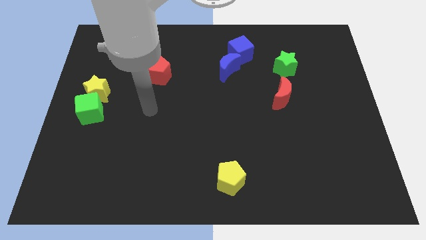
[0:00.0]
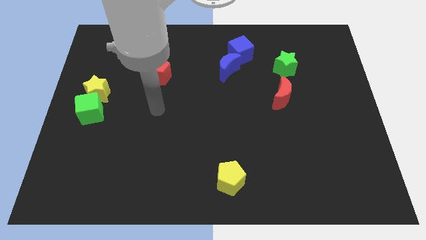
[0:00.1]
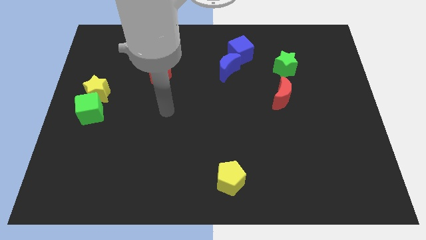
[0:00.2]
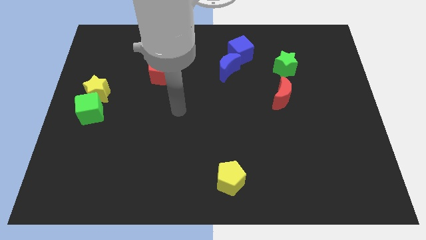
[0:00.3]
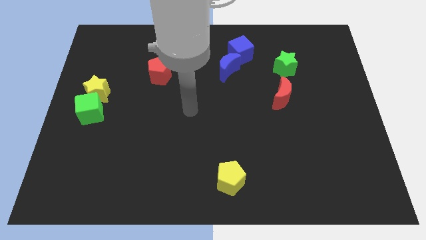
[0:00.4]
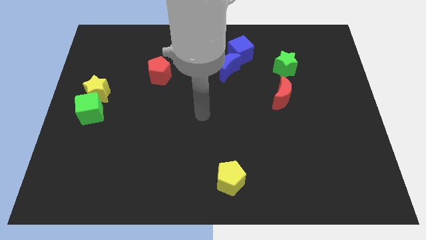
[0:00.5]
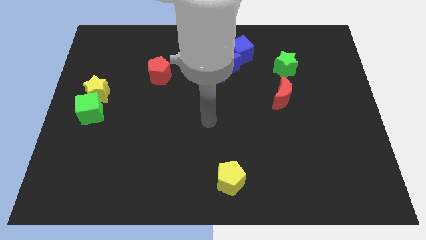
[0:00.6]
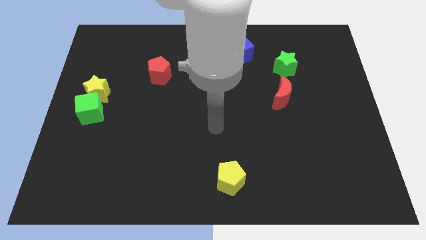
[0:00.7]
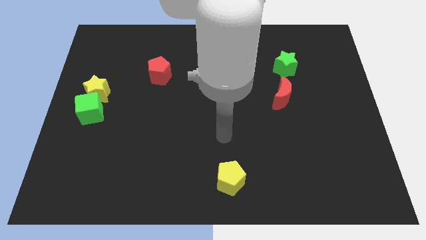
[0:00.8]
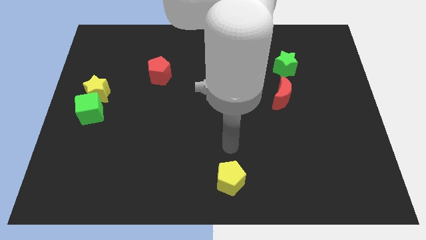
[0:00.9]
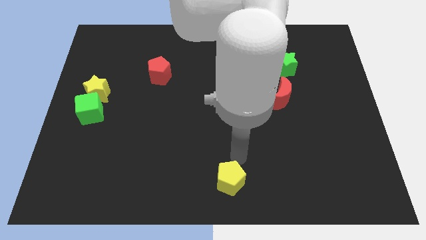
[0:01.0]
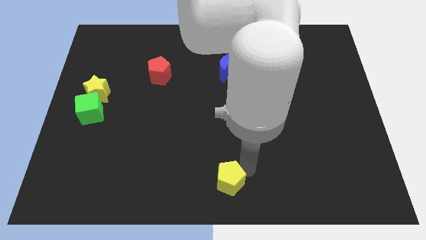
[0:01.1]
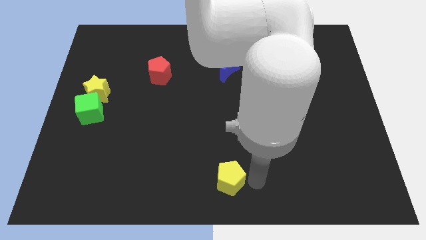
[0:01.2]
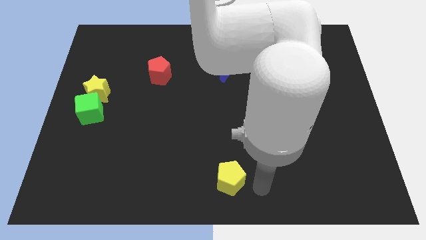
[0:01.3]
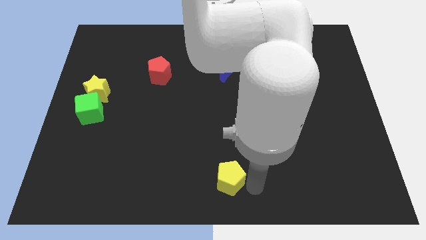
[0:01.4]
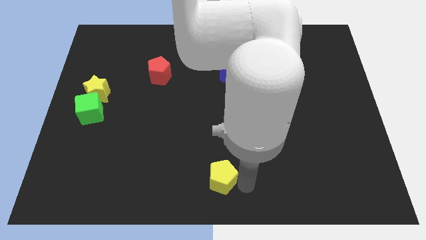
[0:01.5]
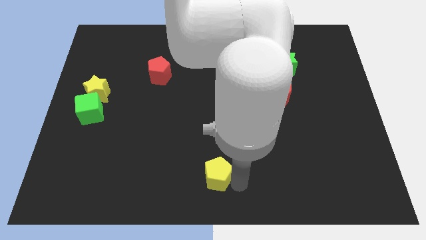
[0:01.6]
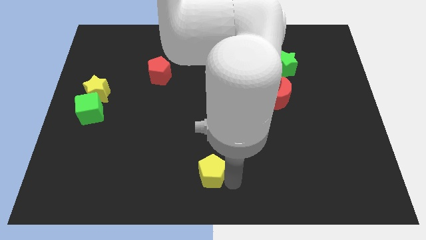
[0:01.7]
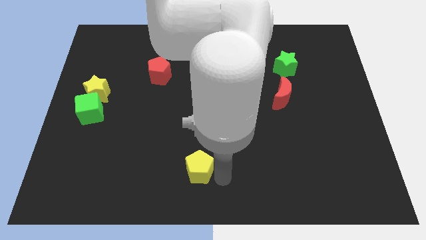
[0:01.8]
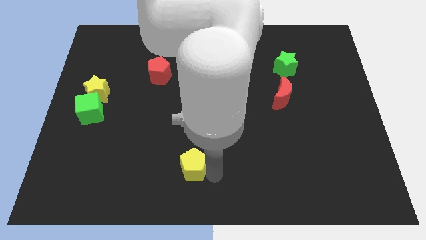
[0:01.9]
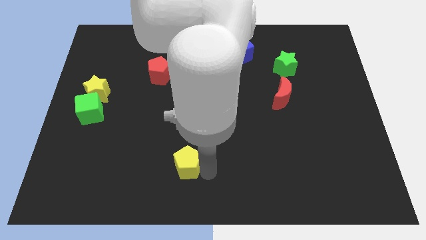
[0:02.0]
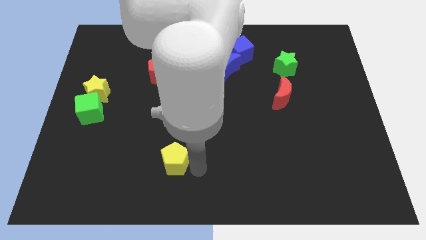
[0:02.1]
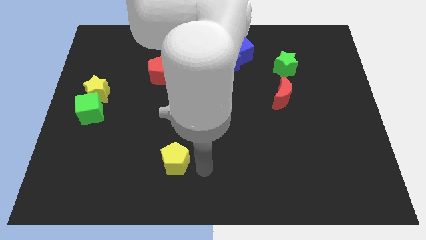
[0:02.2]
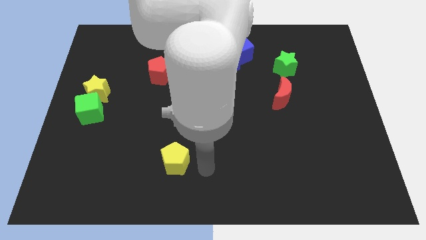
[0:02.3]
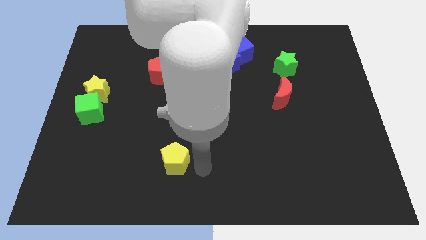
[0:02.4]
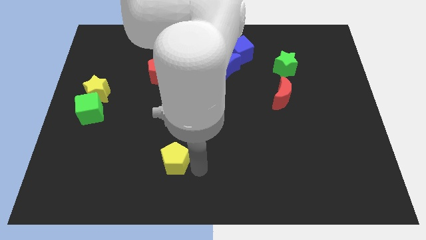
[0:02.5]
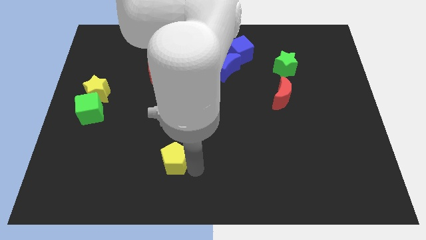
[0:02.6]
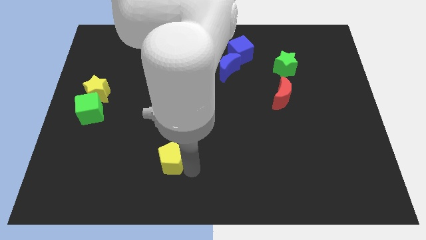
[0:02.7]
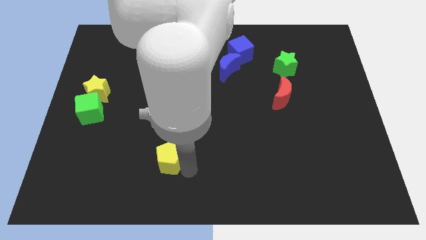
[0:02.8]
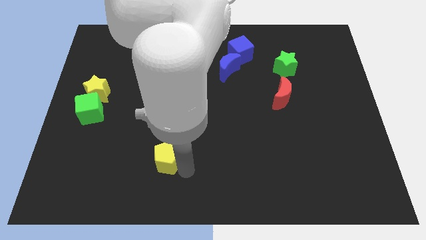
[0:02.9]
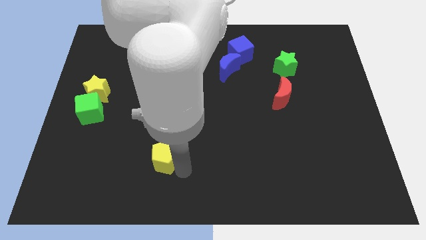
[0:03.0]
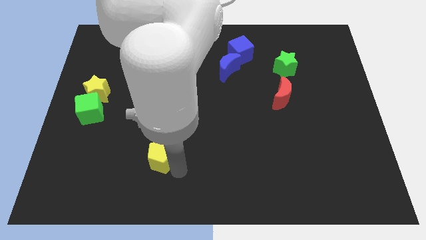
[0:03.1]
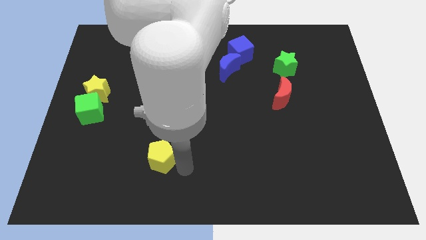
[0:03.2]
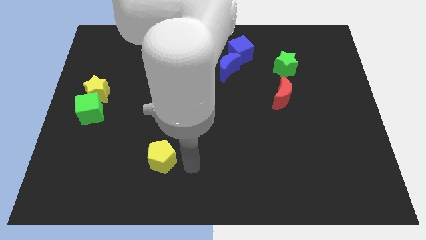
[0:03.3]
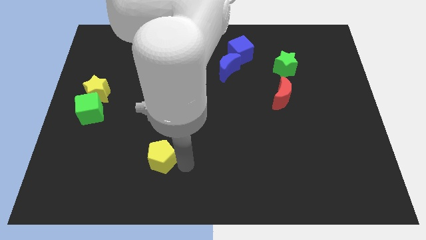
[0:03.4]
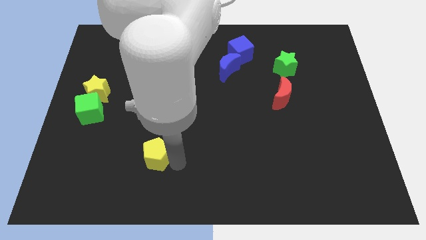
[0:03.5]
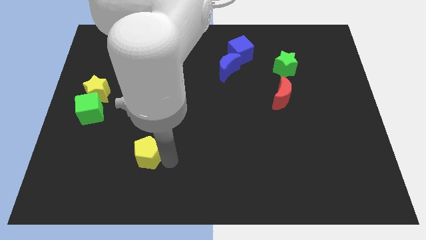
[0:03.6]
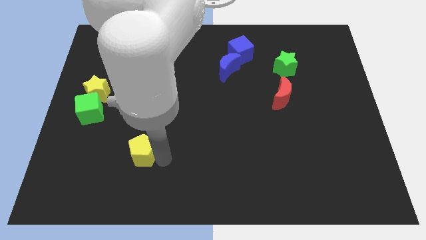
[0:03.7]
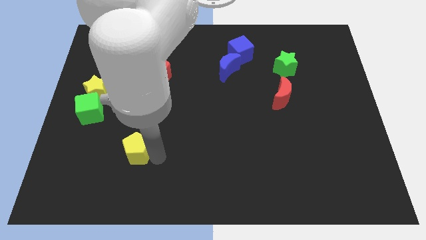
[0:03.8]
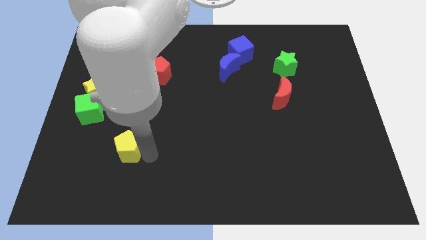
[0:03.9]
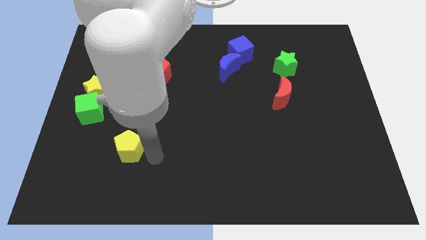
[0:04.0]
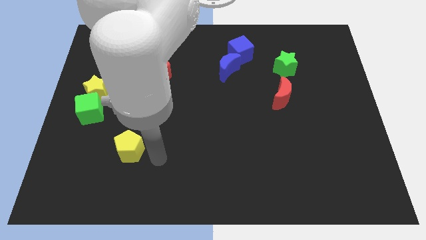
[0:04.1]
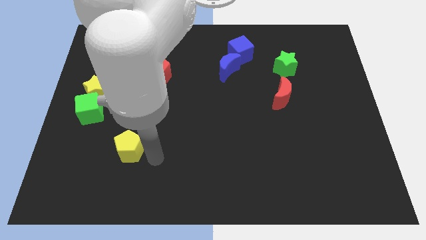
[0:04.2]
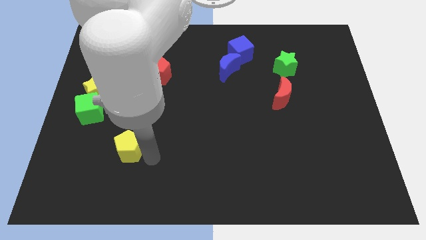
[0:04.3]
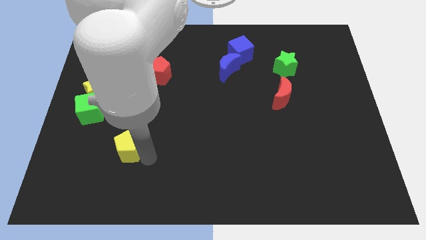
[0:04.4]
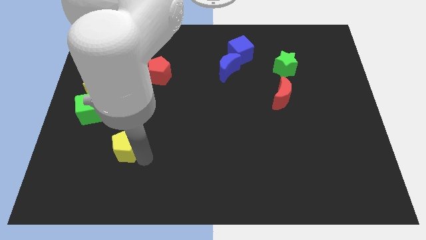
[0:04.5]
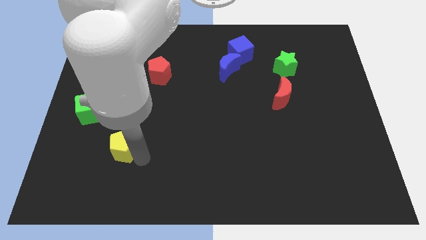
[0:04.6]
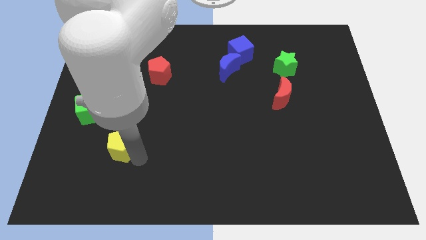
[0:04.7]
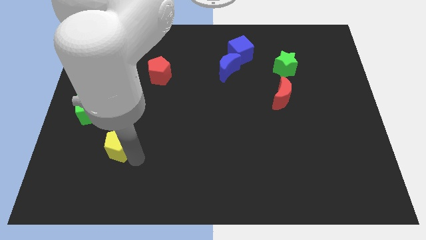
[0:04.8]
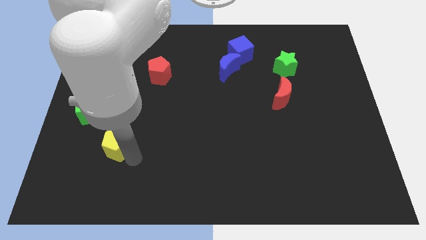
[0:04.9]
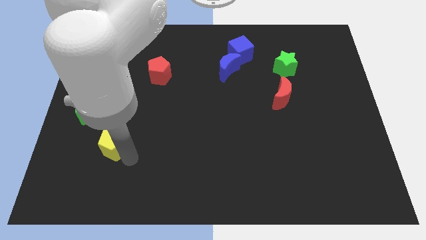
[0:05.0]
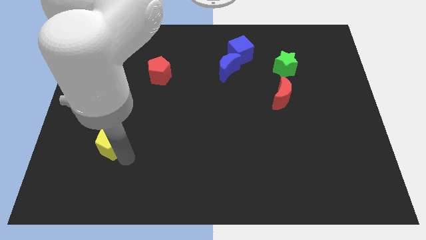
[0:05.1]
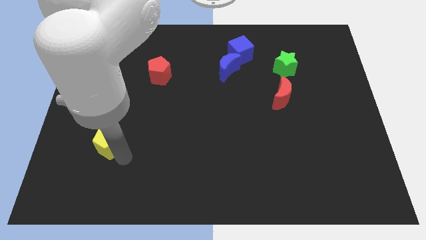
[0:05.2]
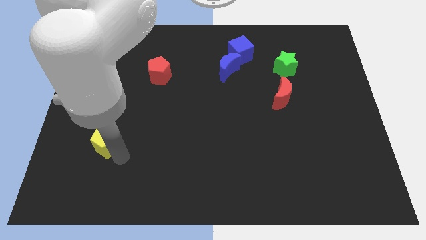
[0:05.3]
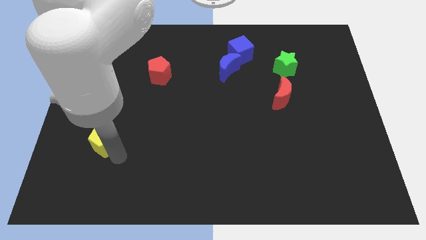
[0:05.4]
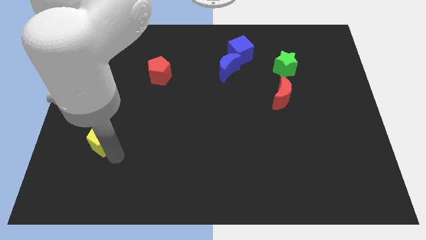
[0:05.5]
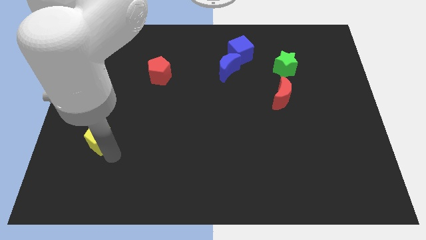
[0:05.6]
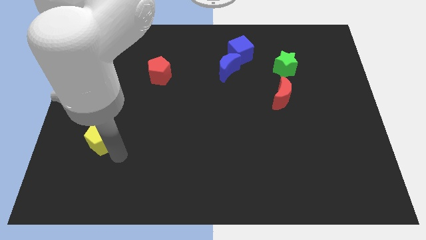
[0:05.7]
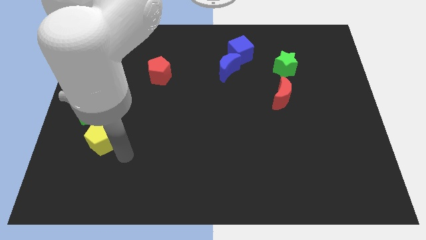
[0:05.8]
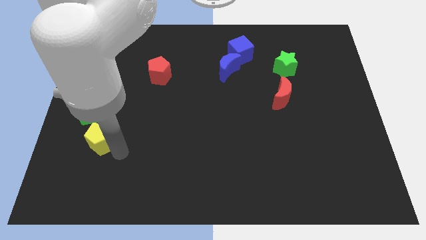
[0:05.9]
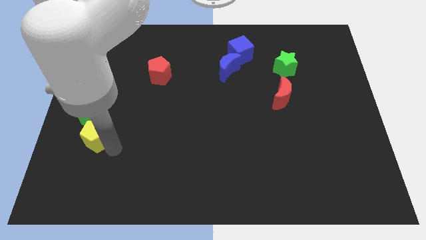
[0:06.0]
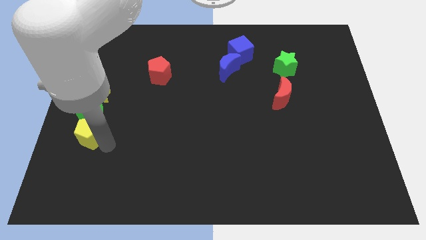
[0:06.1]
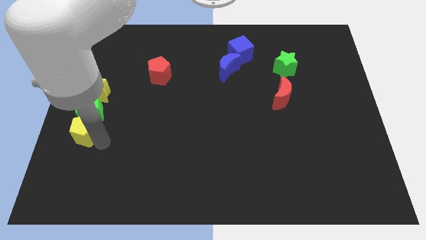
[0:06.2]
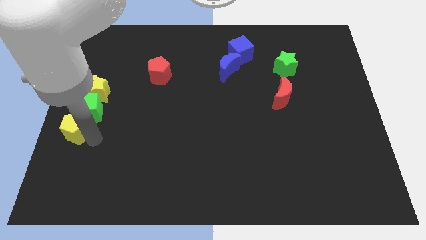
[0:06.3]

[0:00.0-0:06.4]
put the yellow pentagon to the left side
